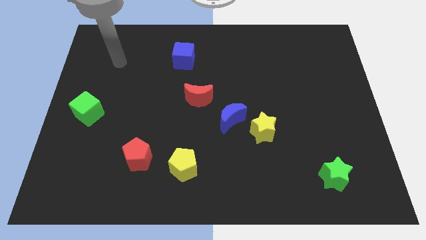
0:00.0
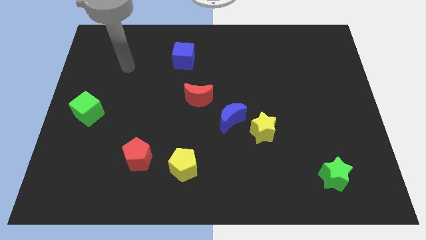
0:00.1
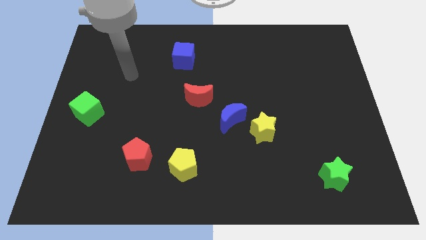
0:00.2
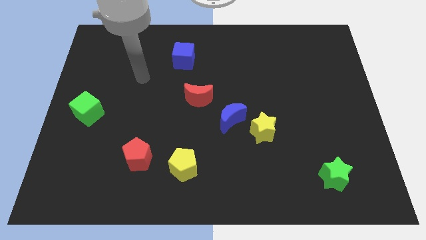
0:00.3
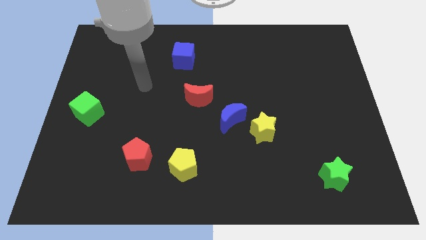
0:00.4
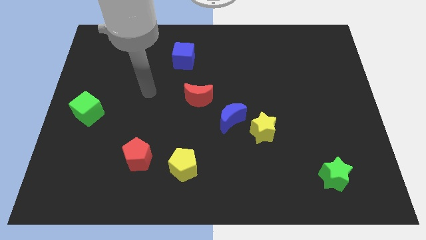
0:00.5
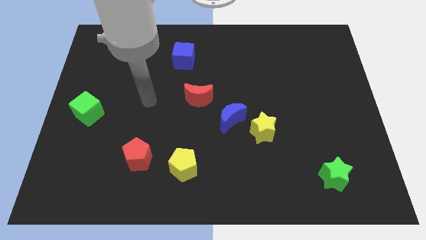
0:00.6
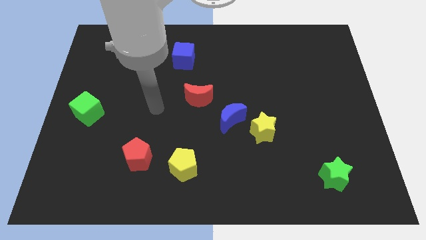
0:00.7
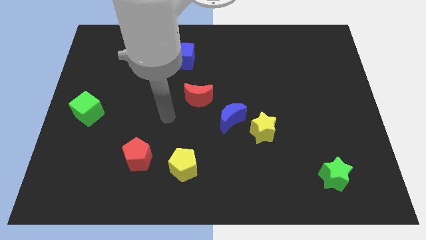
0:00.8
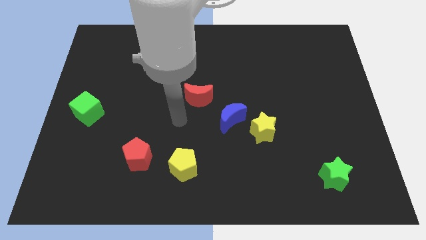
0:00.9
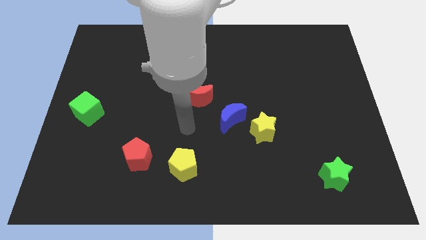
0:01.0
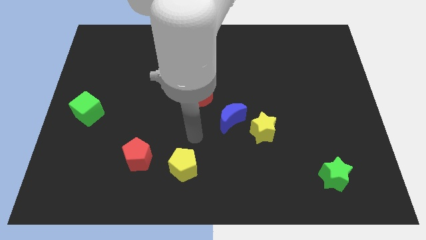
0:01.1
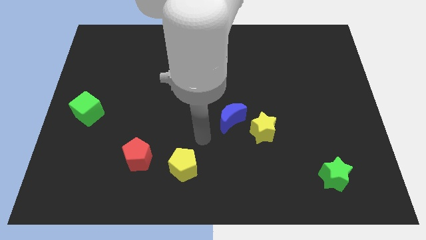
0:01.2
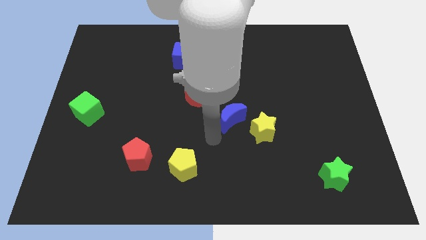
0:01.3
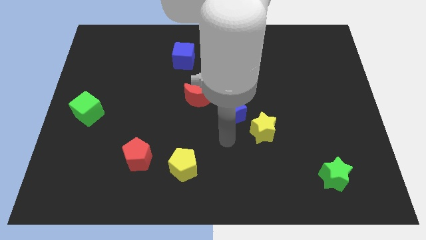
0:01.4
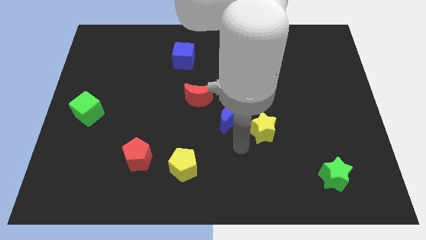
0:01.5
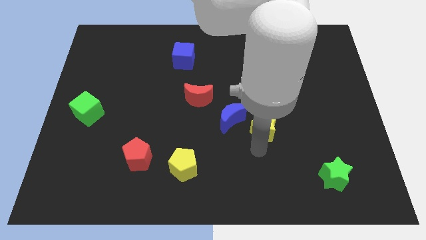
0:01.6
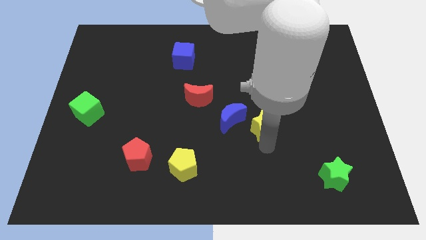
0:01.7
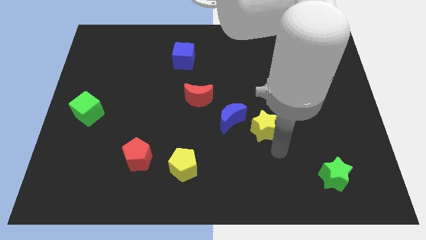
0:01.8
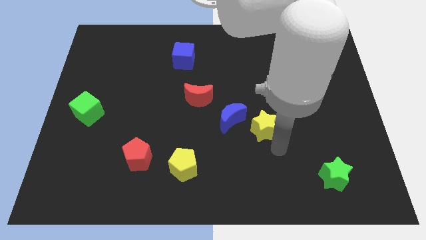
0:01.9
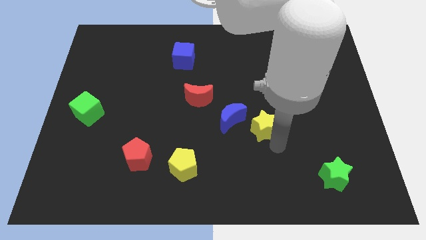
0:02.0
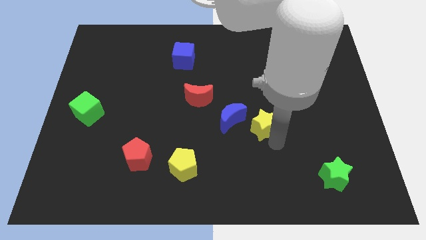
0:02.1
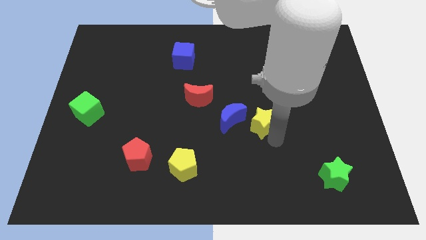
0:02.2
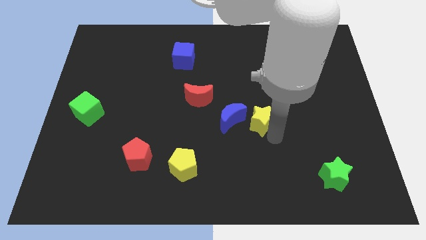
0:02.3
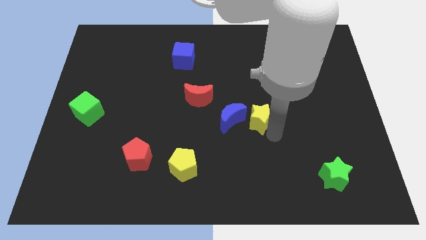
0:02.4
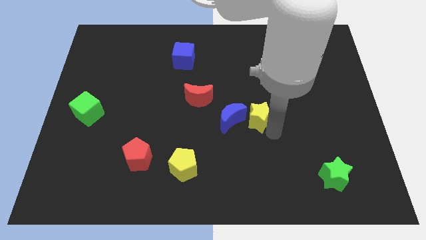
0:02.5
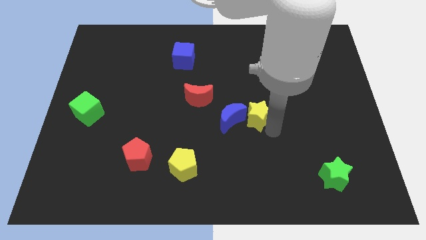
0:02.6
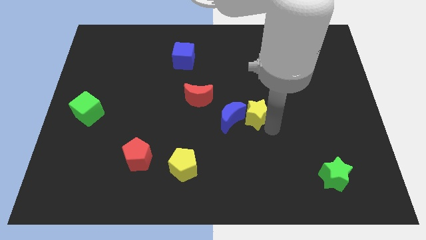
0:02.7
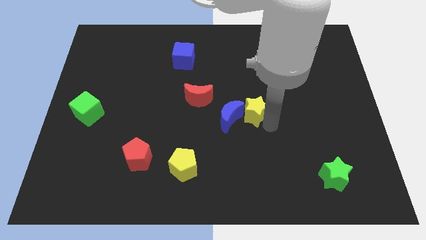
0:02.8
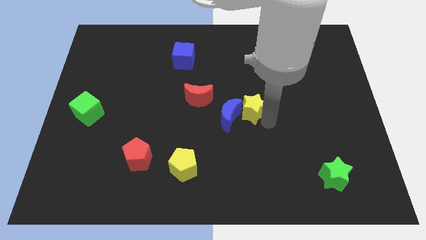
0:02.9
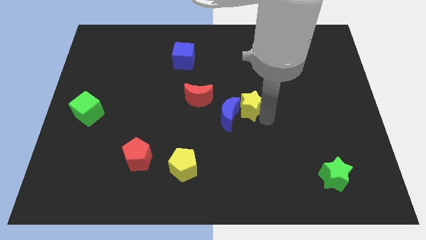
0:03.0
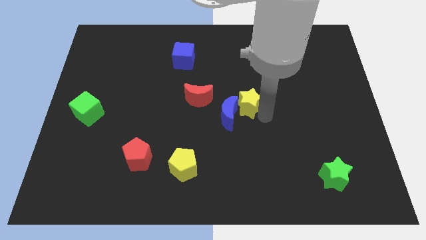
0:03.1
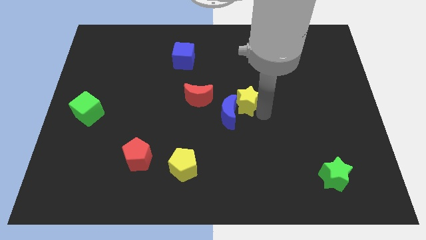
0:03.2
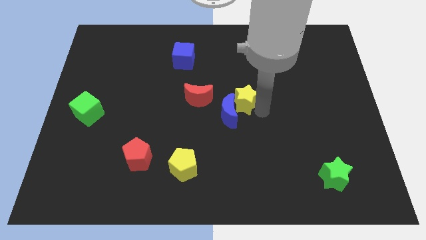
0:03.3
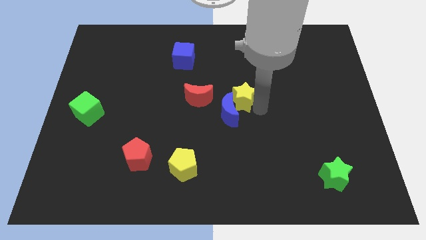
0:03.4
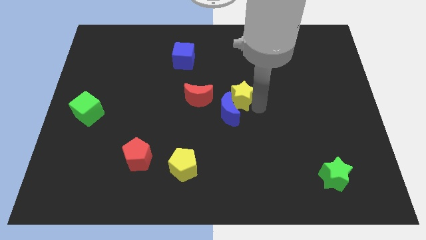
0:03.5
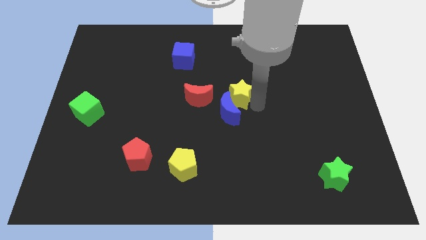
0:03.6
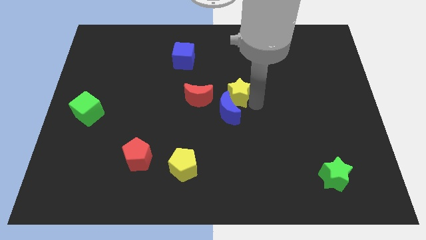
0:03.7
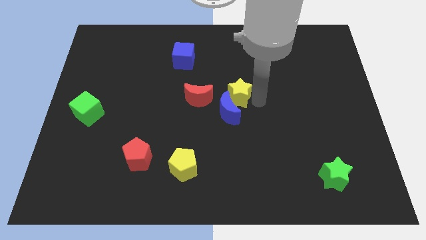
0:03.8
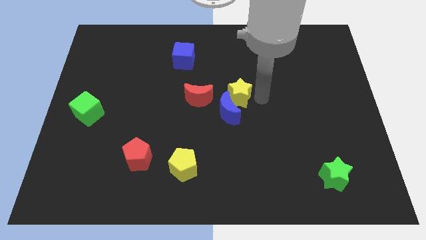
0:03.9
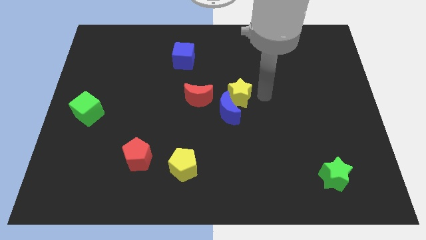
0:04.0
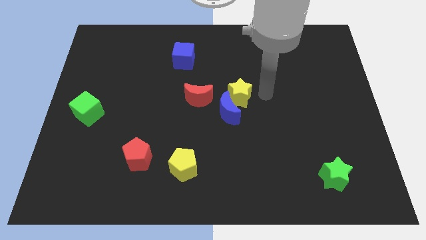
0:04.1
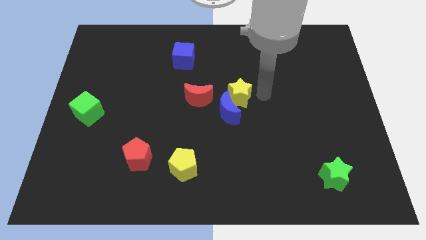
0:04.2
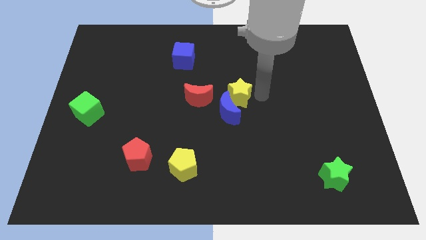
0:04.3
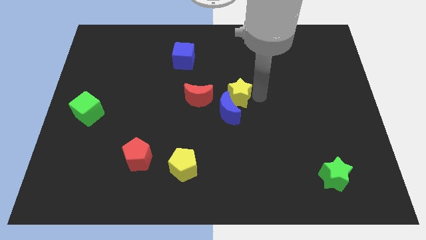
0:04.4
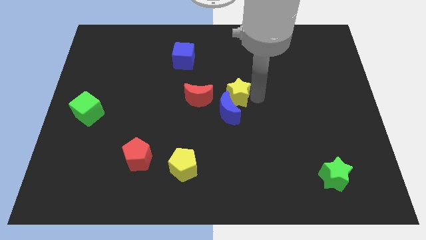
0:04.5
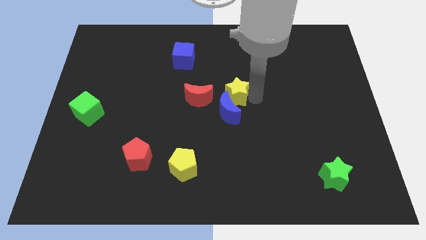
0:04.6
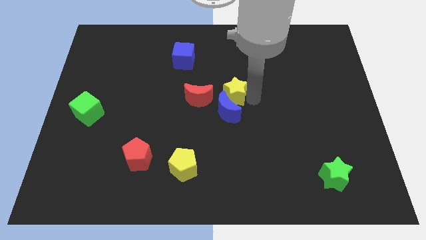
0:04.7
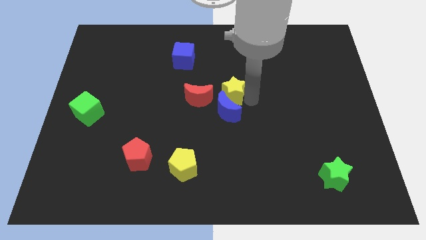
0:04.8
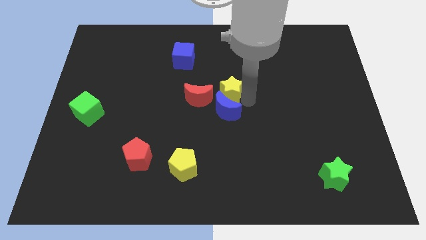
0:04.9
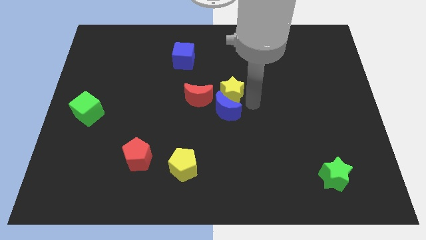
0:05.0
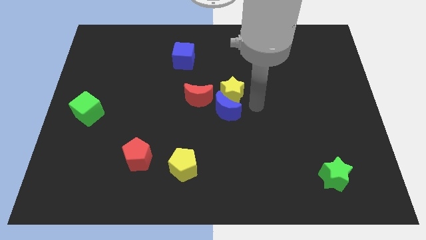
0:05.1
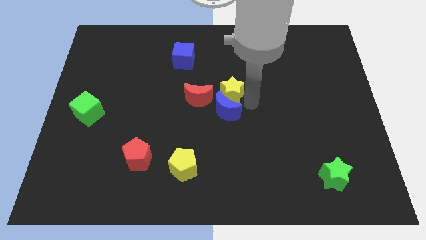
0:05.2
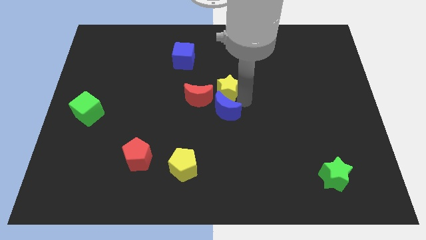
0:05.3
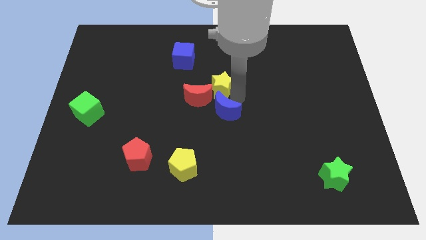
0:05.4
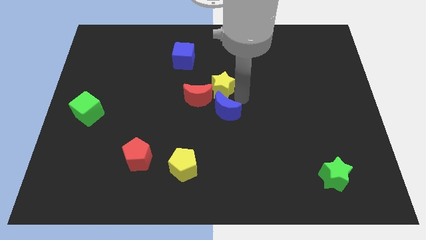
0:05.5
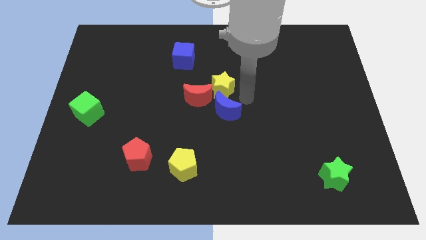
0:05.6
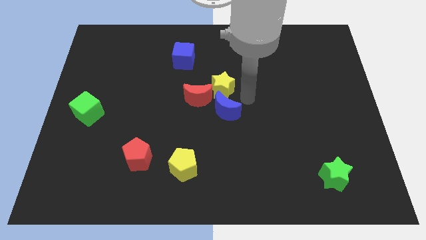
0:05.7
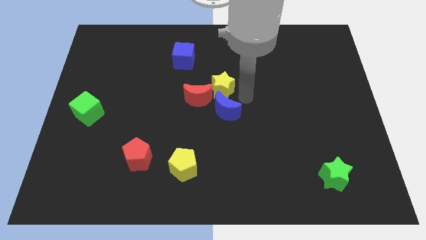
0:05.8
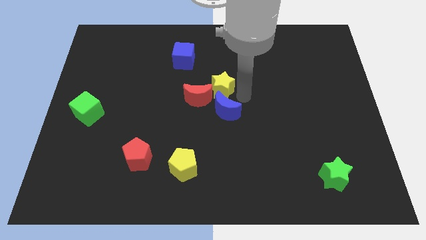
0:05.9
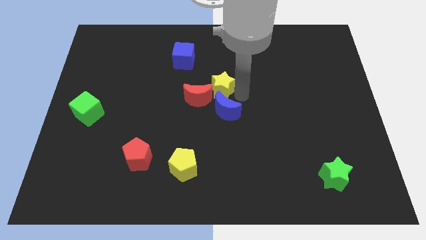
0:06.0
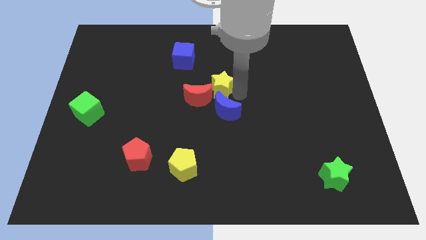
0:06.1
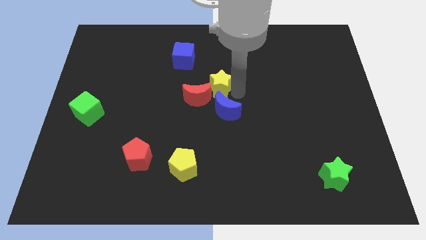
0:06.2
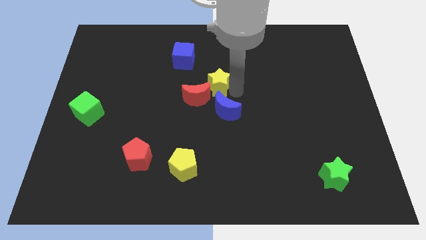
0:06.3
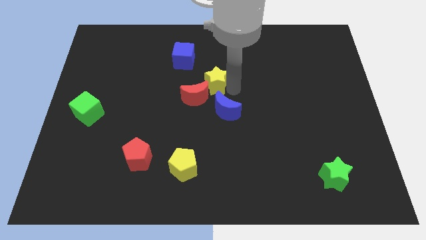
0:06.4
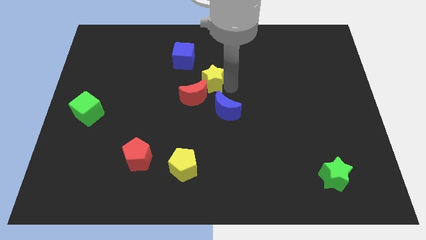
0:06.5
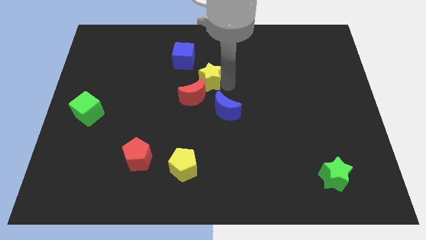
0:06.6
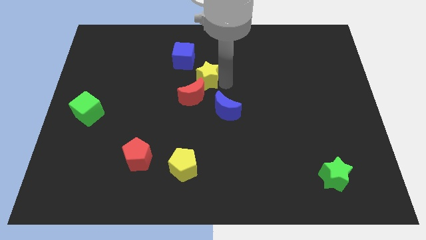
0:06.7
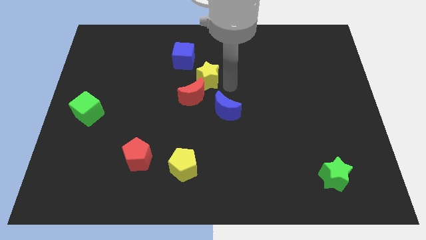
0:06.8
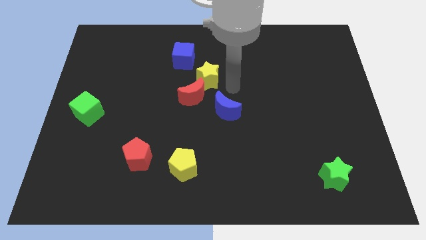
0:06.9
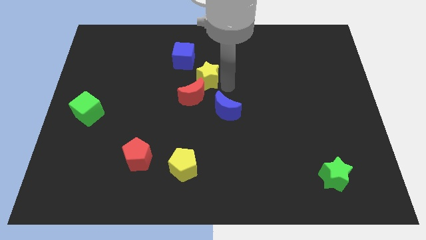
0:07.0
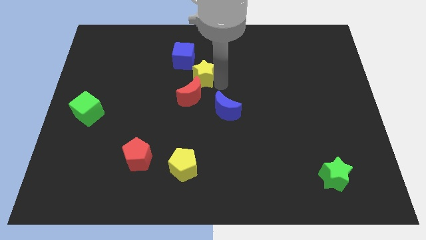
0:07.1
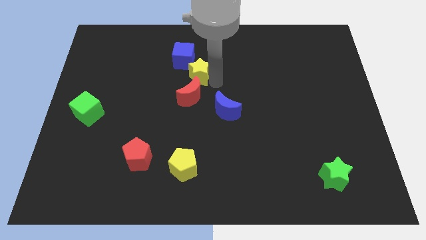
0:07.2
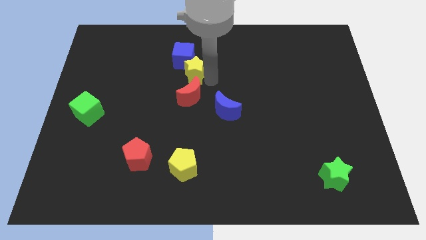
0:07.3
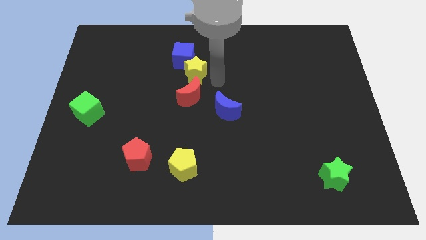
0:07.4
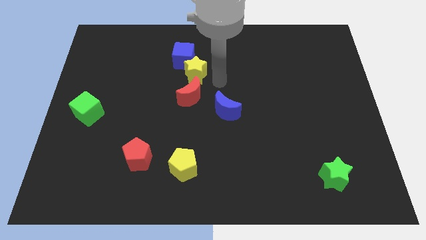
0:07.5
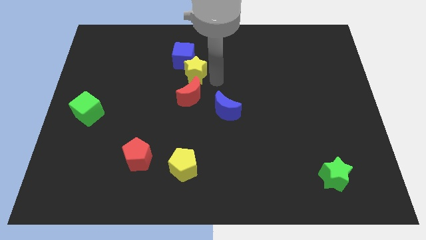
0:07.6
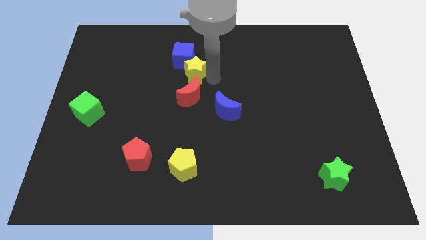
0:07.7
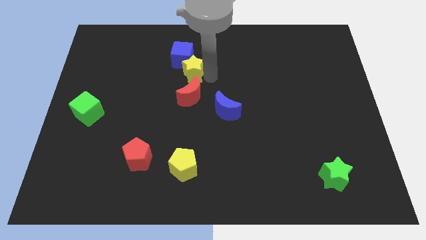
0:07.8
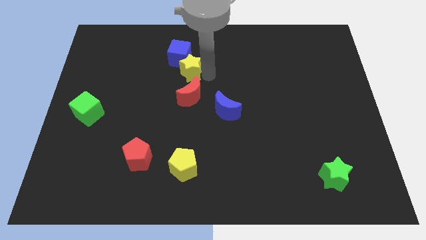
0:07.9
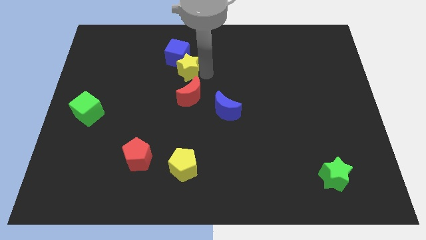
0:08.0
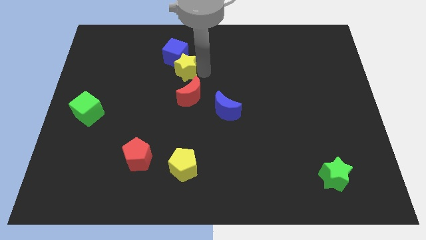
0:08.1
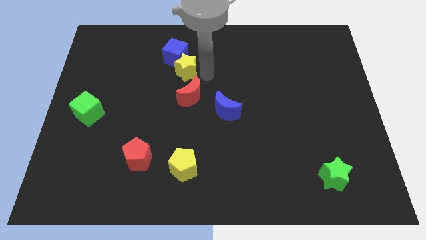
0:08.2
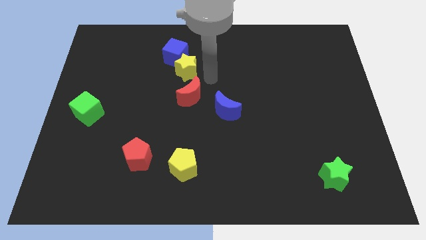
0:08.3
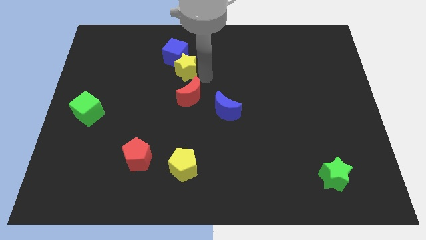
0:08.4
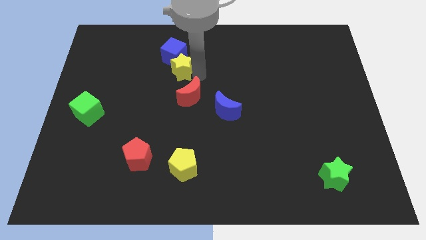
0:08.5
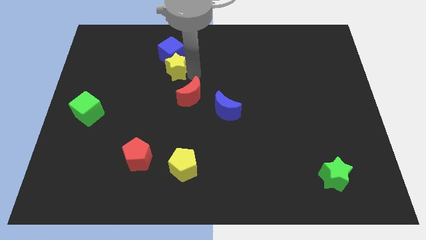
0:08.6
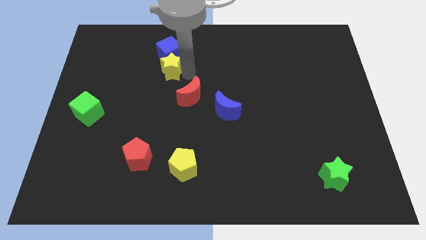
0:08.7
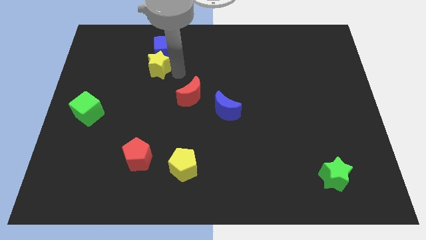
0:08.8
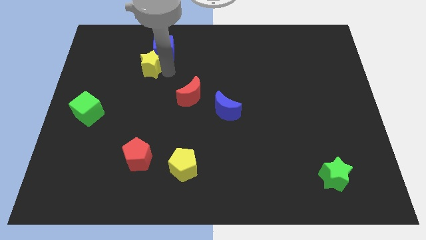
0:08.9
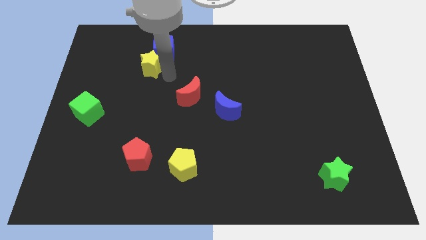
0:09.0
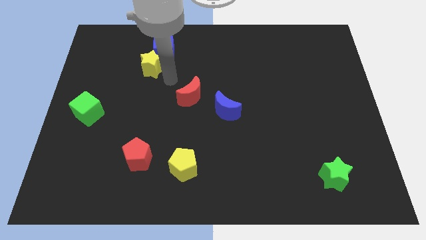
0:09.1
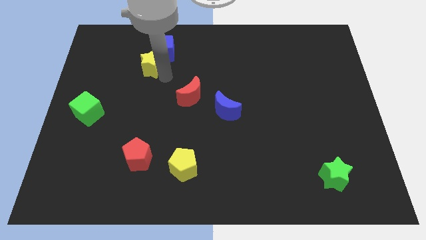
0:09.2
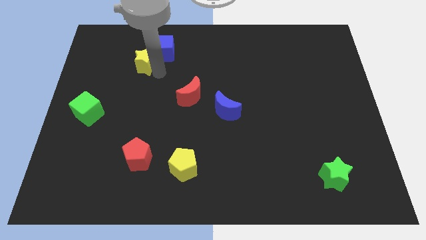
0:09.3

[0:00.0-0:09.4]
slide the yellow star to the left of the blue cube
